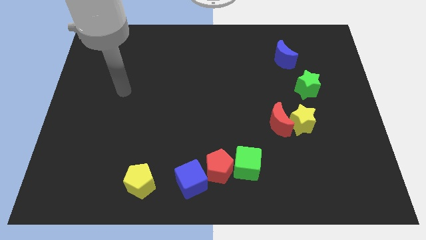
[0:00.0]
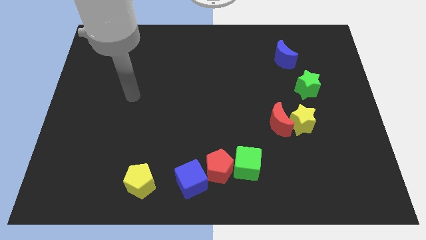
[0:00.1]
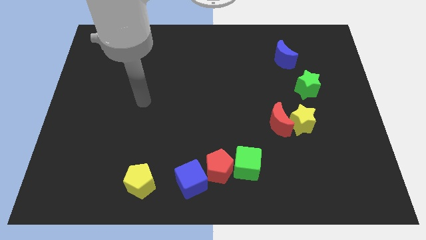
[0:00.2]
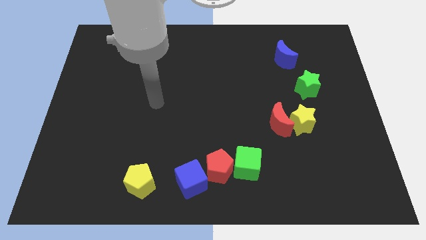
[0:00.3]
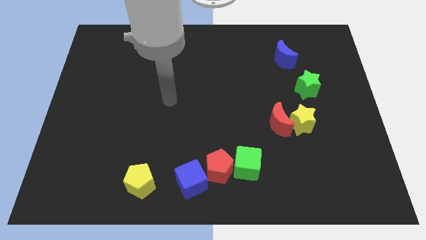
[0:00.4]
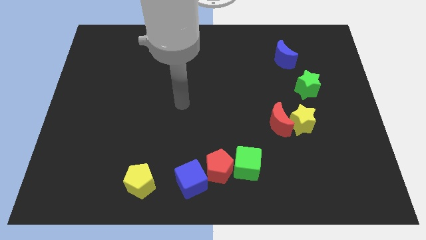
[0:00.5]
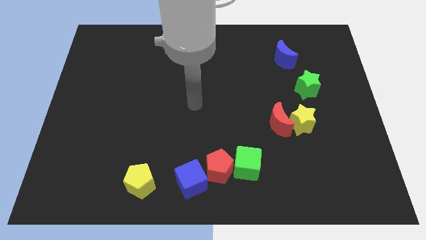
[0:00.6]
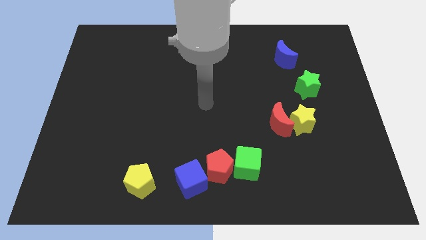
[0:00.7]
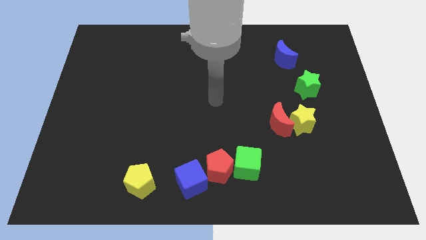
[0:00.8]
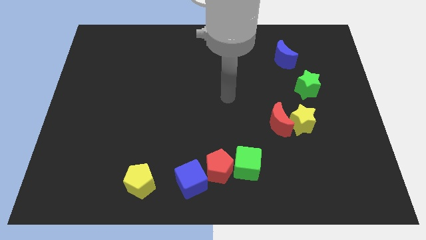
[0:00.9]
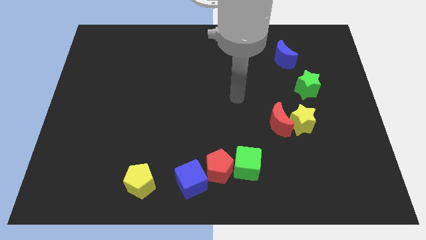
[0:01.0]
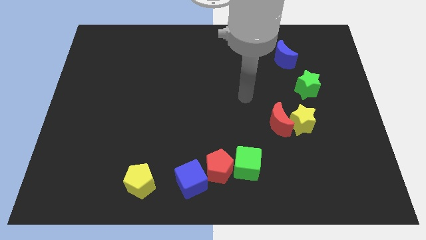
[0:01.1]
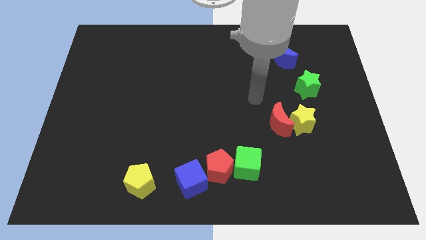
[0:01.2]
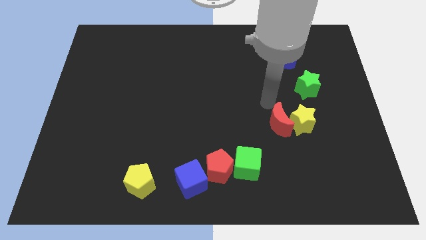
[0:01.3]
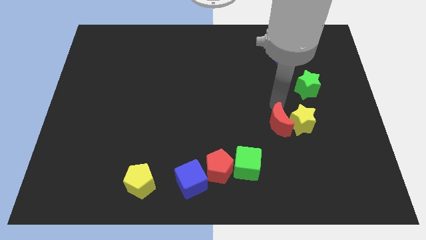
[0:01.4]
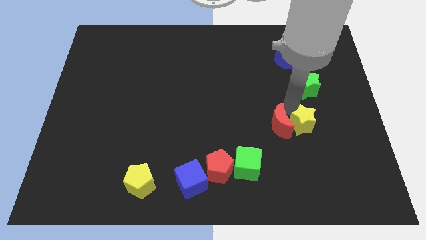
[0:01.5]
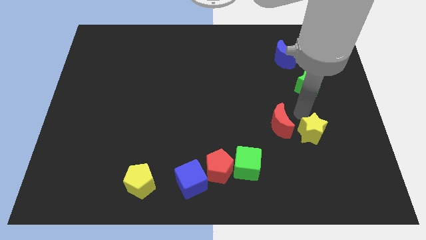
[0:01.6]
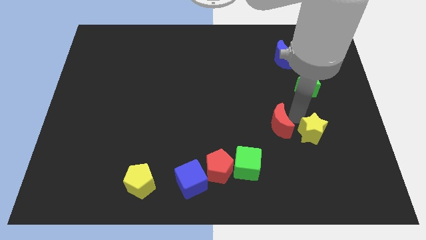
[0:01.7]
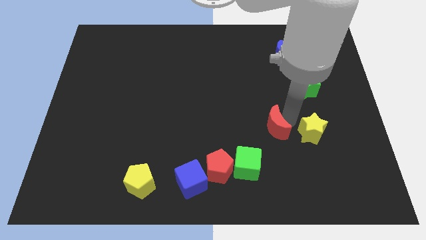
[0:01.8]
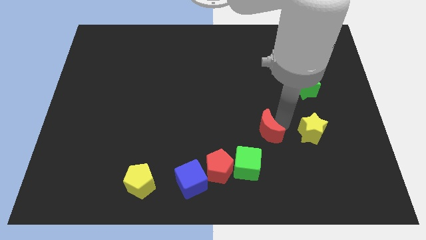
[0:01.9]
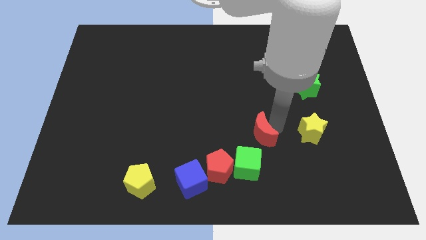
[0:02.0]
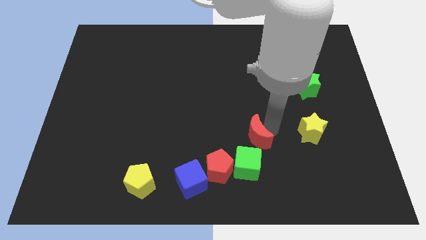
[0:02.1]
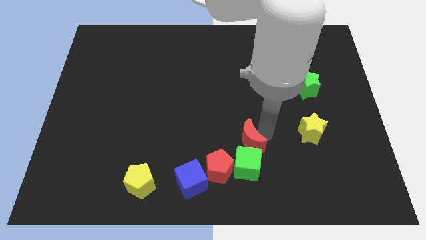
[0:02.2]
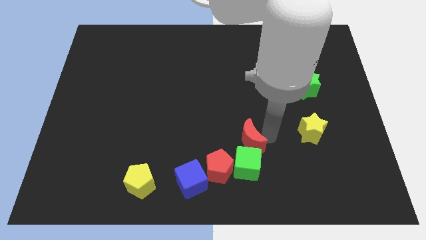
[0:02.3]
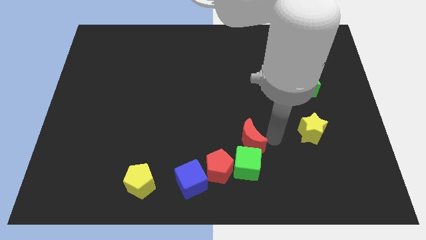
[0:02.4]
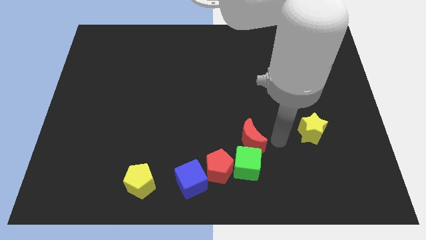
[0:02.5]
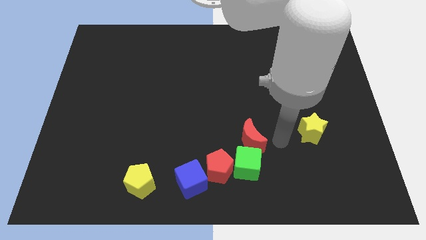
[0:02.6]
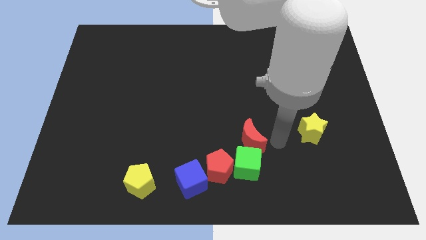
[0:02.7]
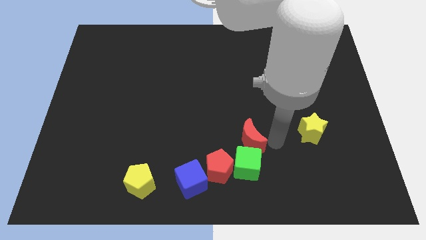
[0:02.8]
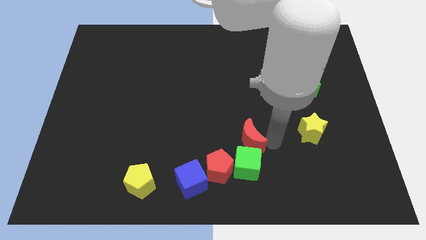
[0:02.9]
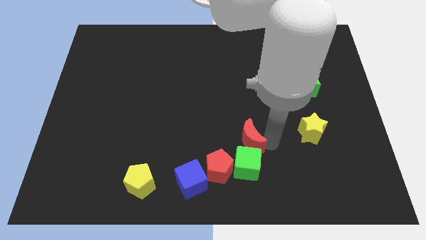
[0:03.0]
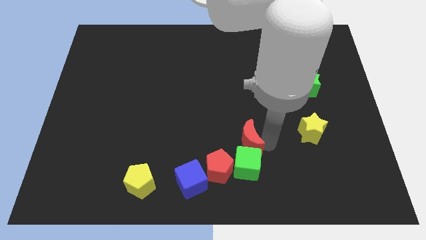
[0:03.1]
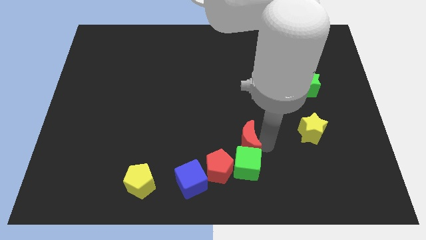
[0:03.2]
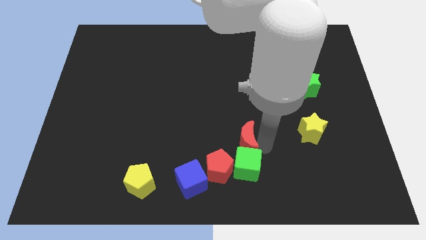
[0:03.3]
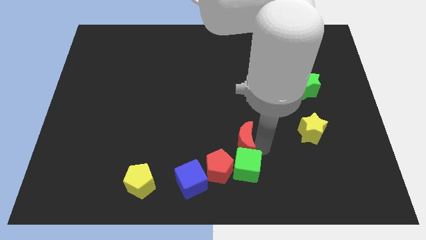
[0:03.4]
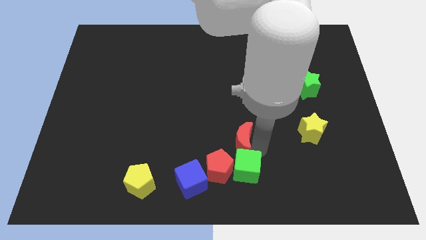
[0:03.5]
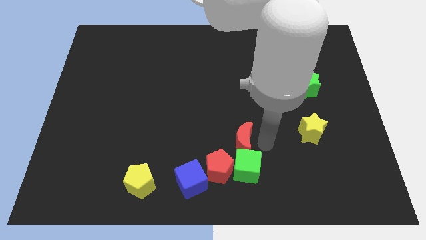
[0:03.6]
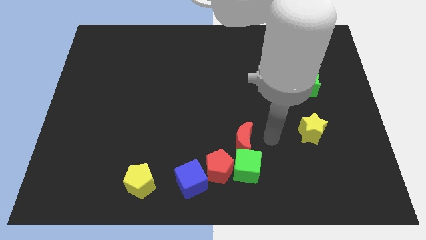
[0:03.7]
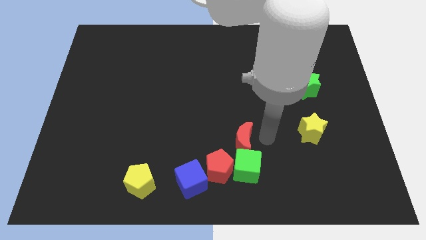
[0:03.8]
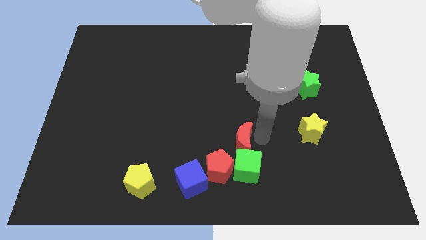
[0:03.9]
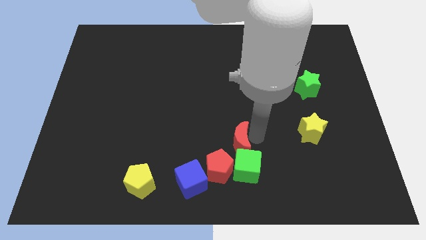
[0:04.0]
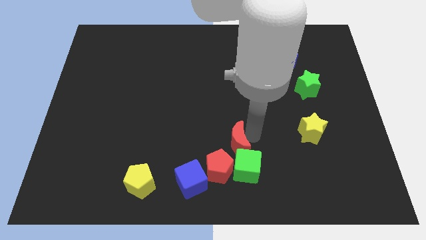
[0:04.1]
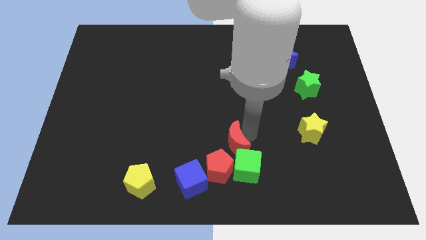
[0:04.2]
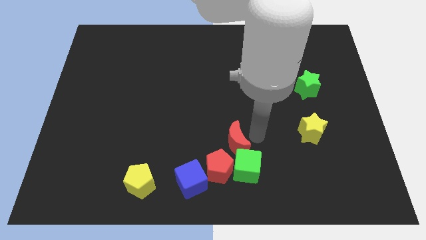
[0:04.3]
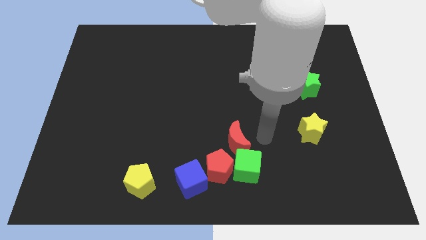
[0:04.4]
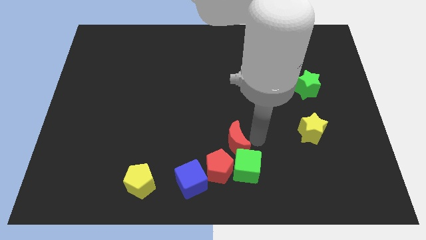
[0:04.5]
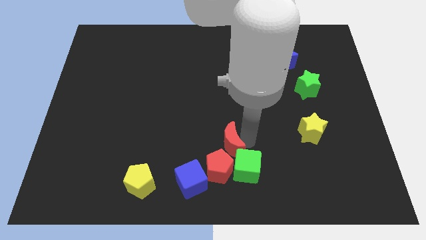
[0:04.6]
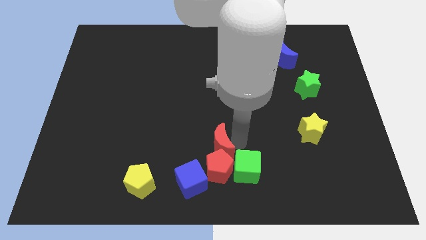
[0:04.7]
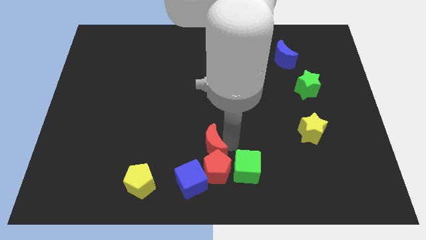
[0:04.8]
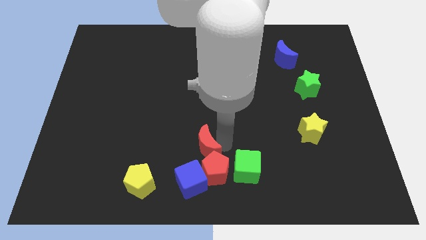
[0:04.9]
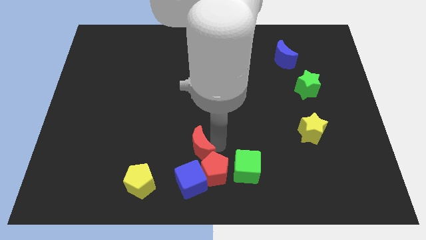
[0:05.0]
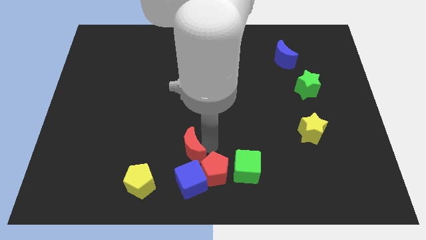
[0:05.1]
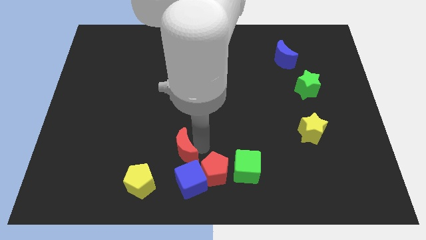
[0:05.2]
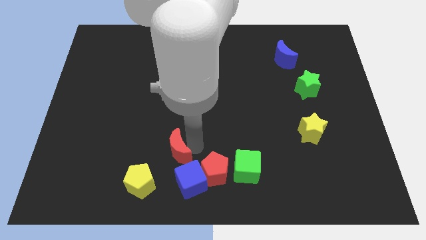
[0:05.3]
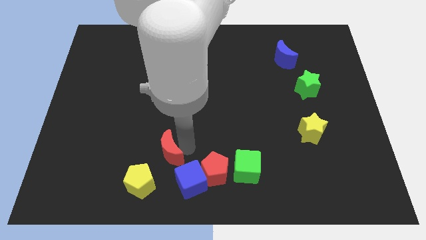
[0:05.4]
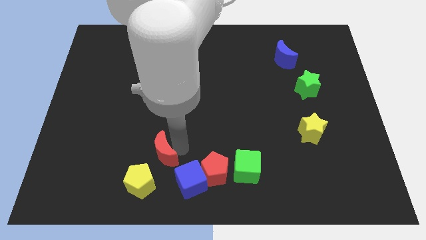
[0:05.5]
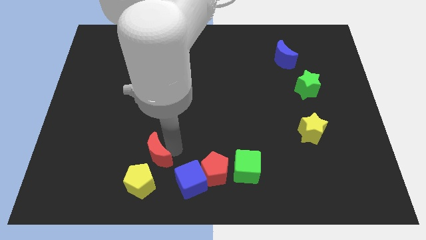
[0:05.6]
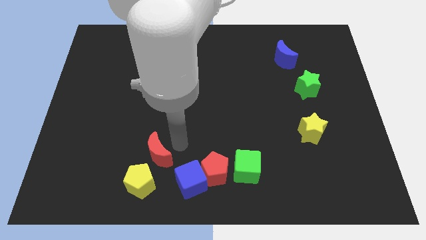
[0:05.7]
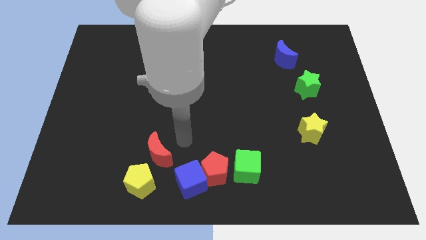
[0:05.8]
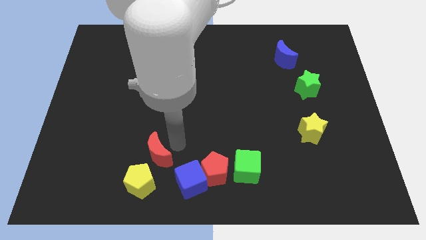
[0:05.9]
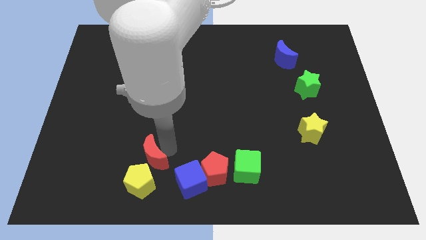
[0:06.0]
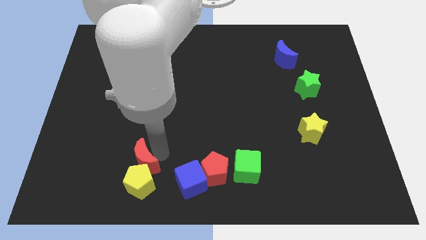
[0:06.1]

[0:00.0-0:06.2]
move the red moon to the left of the blue cube
